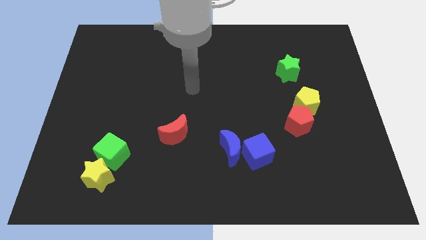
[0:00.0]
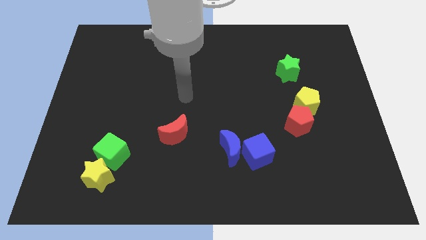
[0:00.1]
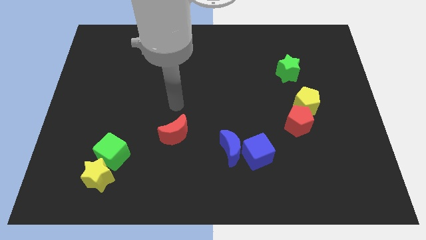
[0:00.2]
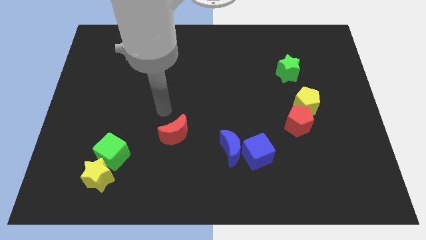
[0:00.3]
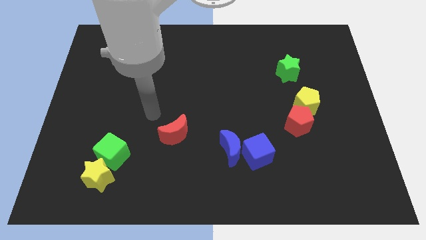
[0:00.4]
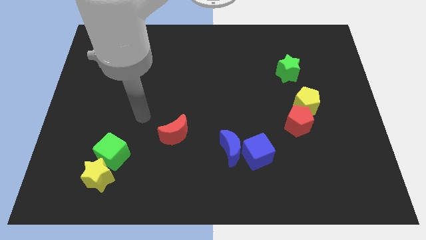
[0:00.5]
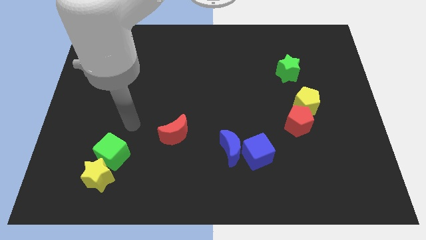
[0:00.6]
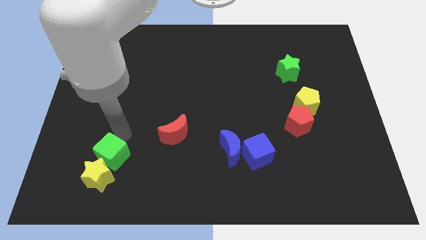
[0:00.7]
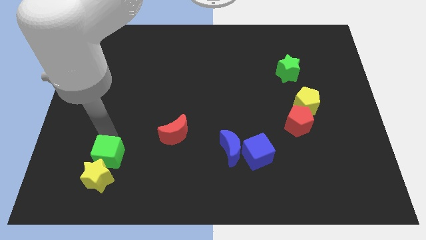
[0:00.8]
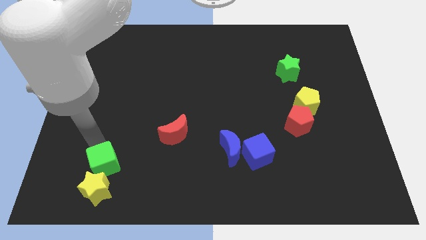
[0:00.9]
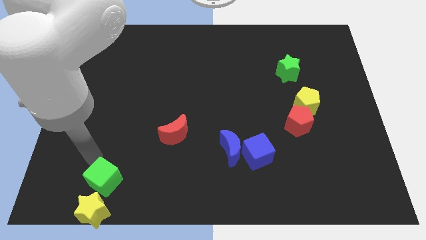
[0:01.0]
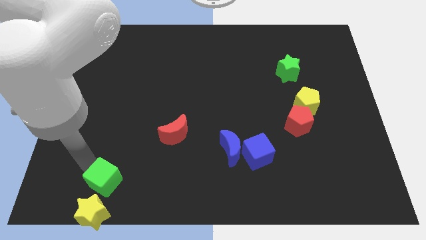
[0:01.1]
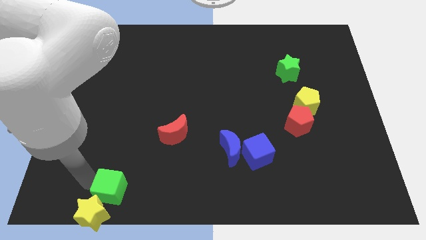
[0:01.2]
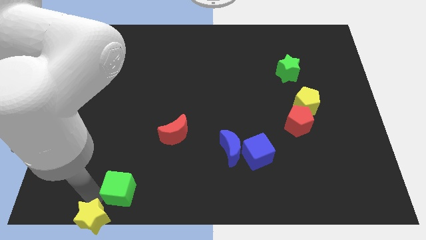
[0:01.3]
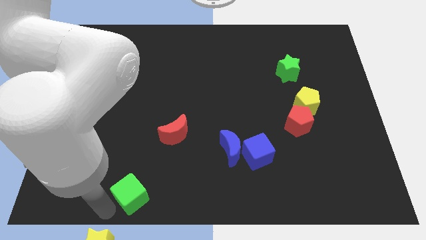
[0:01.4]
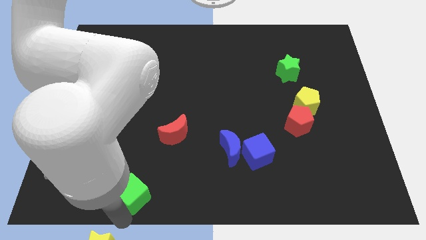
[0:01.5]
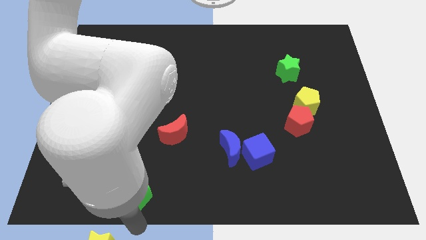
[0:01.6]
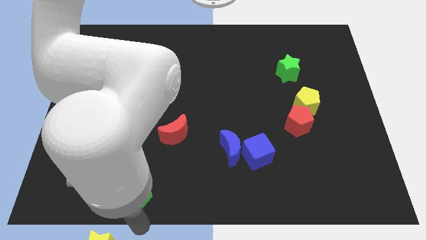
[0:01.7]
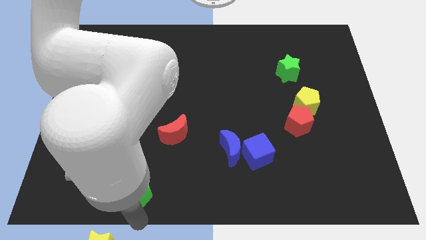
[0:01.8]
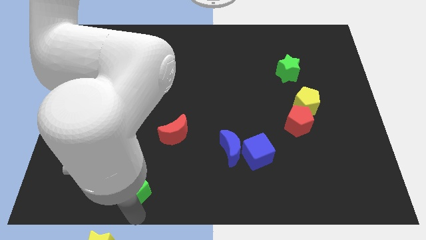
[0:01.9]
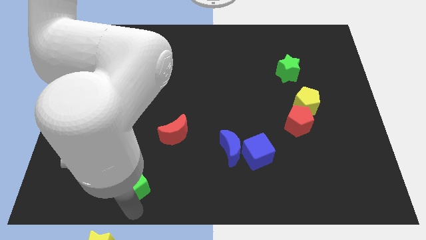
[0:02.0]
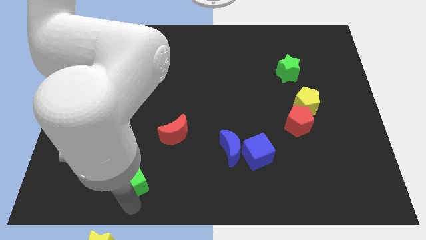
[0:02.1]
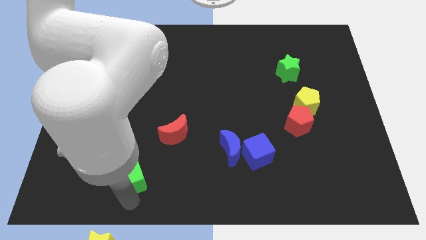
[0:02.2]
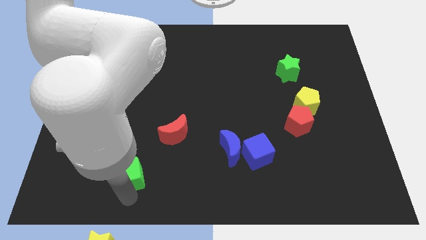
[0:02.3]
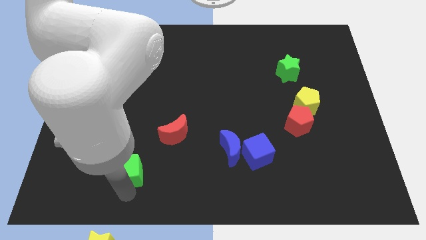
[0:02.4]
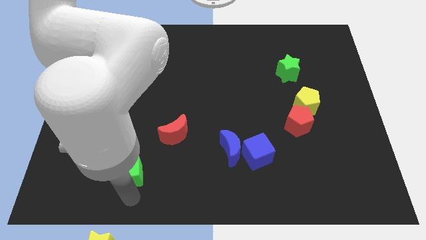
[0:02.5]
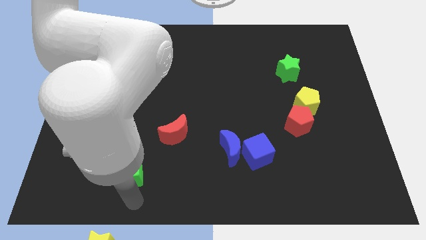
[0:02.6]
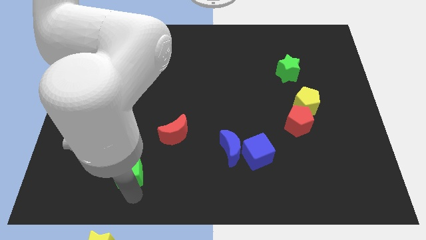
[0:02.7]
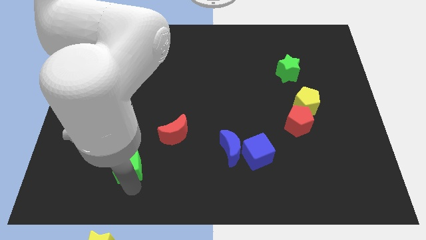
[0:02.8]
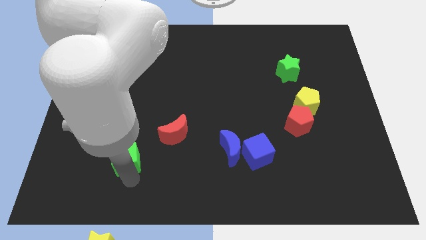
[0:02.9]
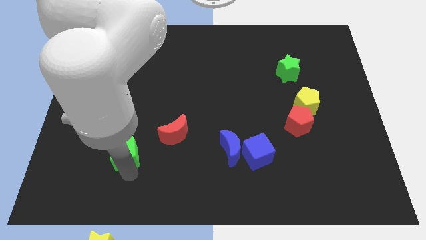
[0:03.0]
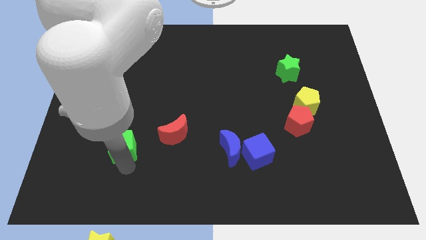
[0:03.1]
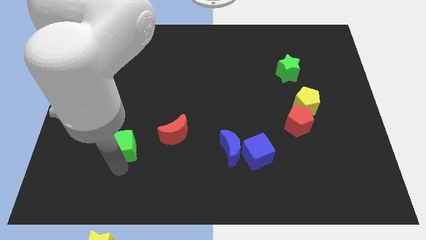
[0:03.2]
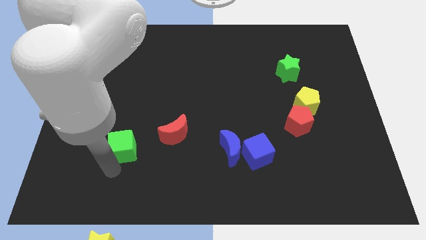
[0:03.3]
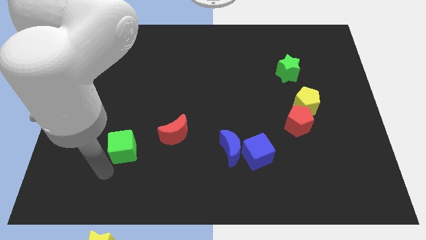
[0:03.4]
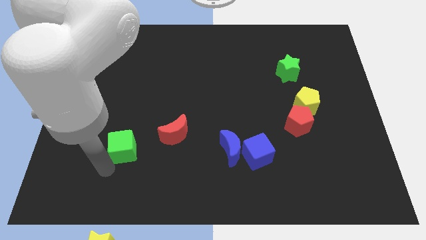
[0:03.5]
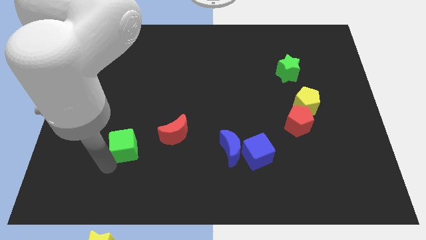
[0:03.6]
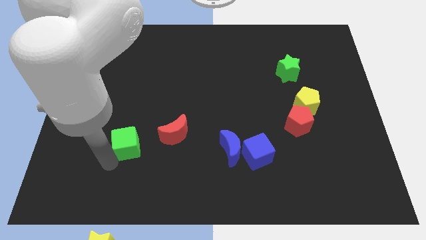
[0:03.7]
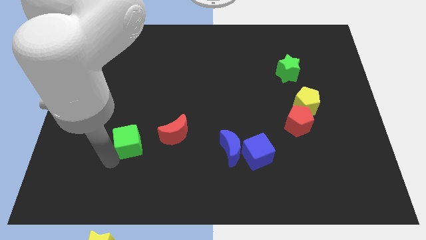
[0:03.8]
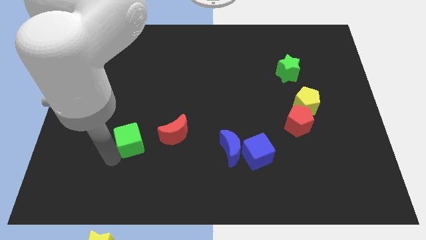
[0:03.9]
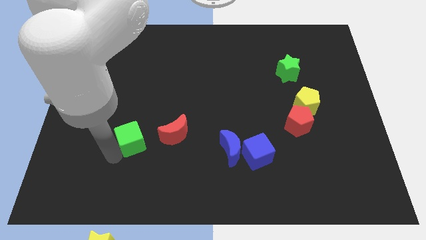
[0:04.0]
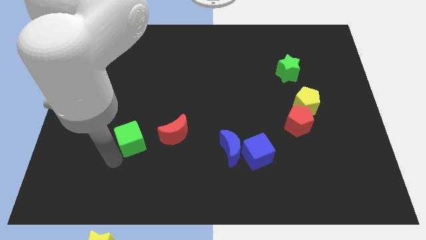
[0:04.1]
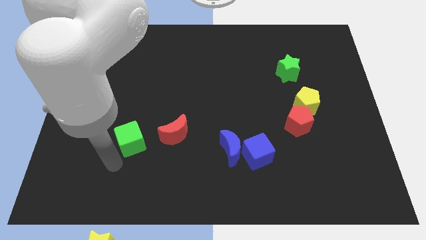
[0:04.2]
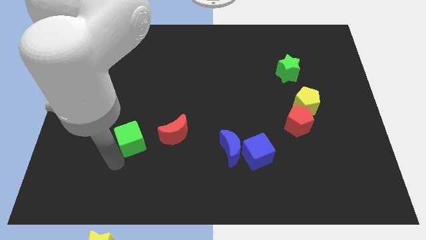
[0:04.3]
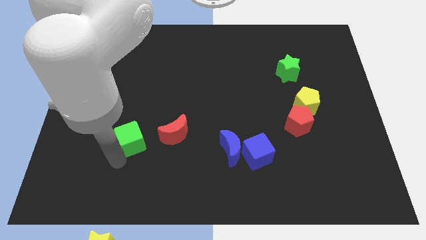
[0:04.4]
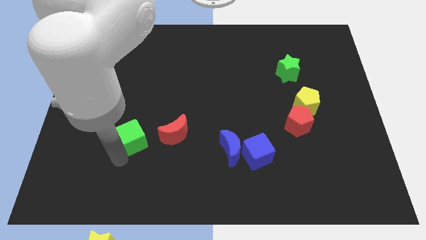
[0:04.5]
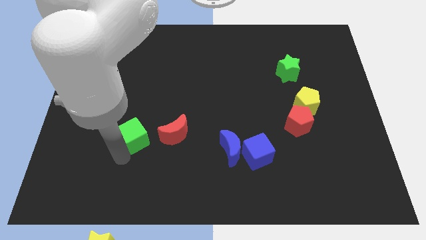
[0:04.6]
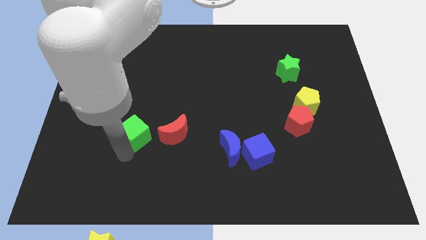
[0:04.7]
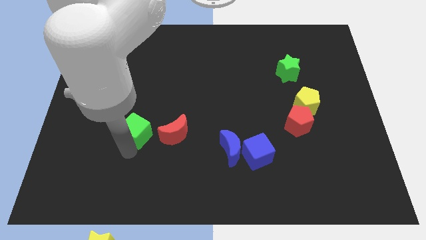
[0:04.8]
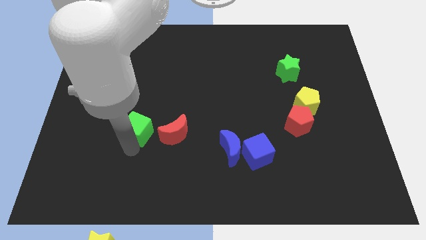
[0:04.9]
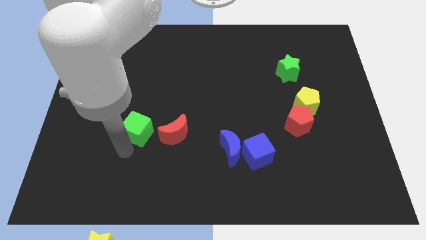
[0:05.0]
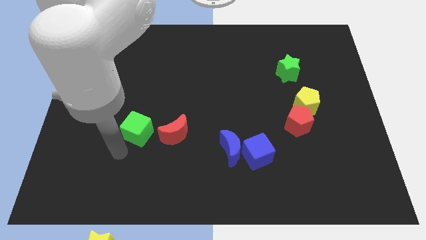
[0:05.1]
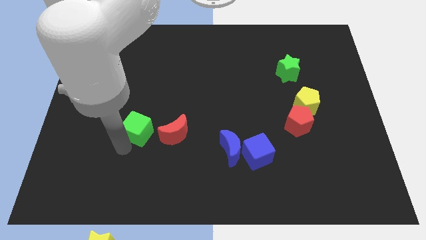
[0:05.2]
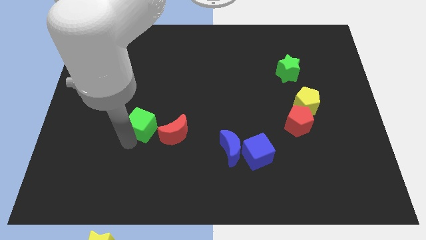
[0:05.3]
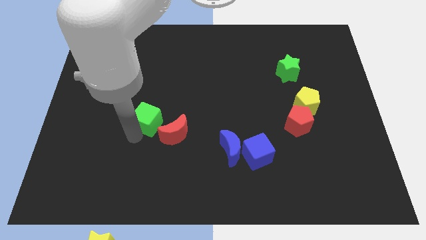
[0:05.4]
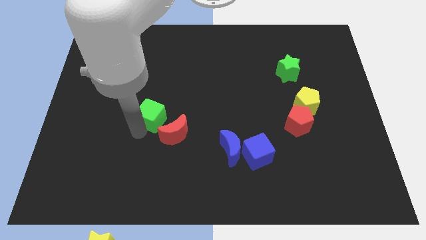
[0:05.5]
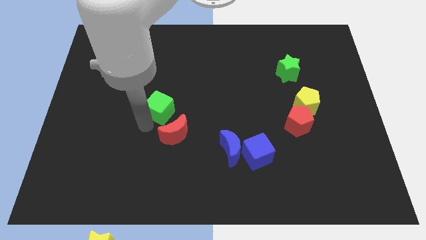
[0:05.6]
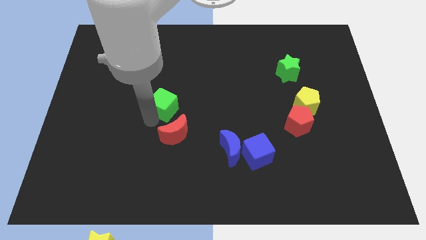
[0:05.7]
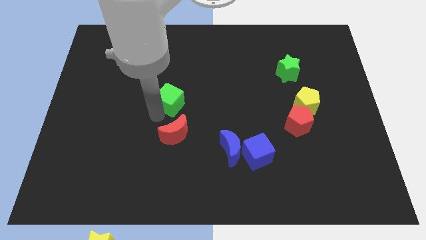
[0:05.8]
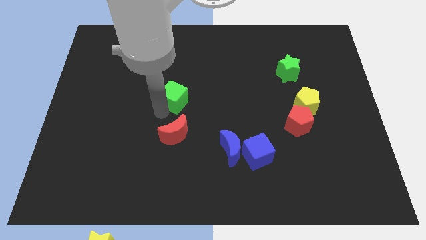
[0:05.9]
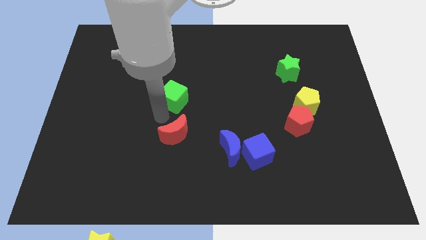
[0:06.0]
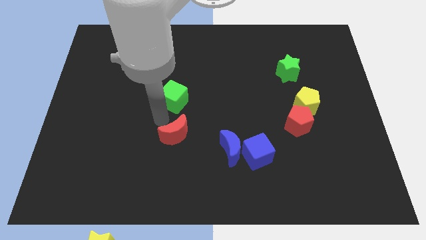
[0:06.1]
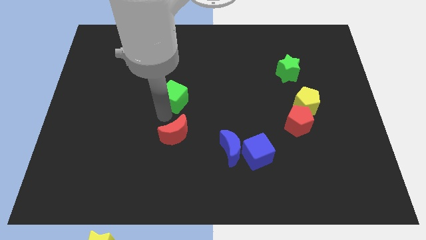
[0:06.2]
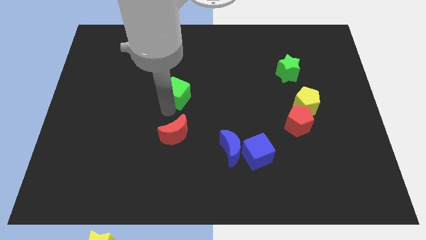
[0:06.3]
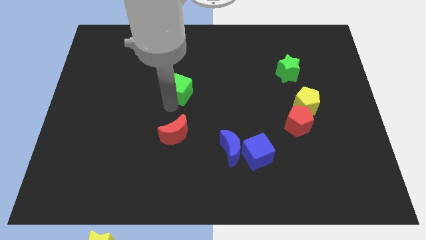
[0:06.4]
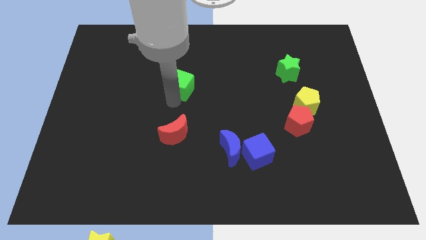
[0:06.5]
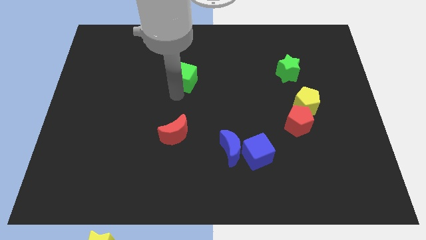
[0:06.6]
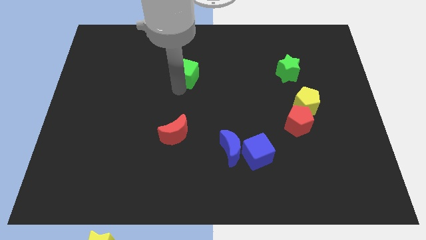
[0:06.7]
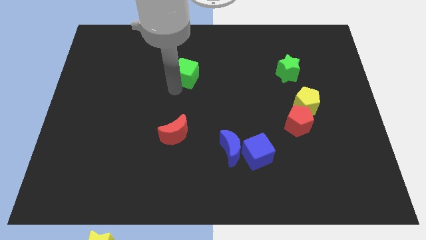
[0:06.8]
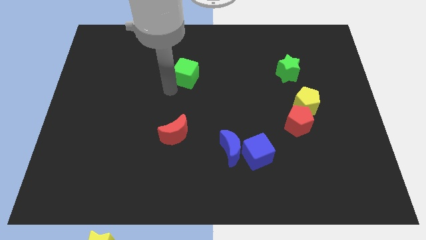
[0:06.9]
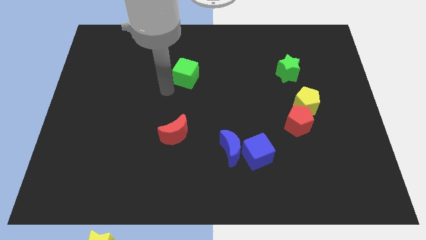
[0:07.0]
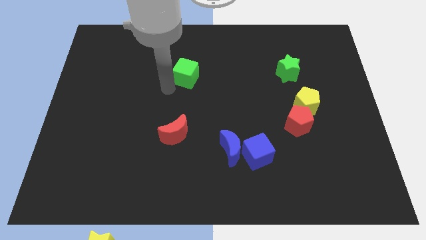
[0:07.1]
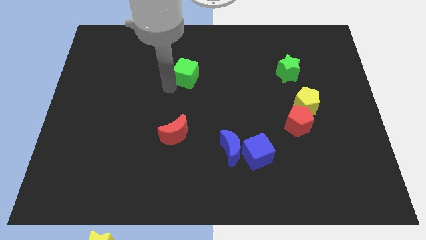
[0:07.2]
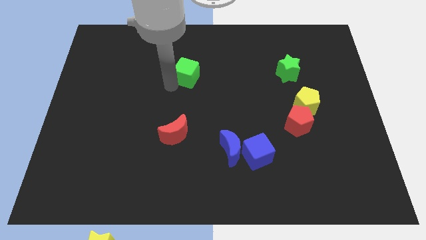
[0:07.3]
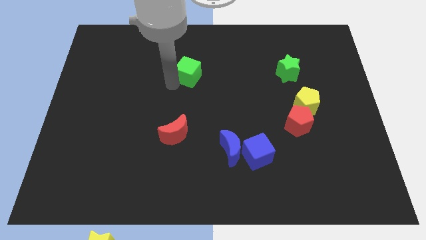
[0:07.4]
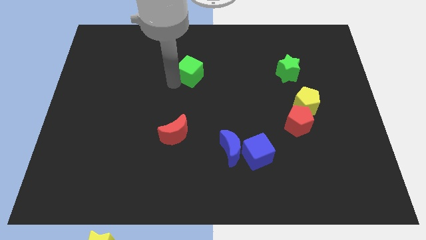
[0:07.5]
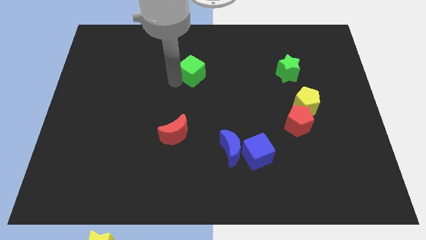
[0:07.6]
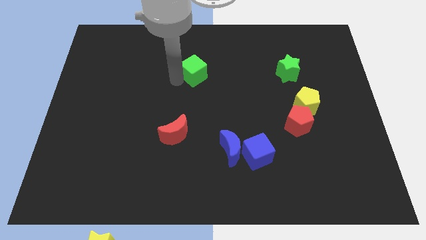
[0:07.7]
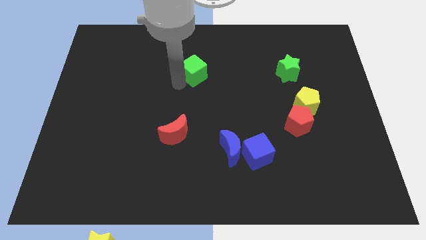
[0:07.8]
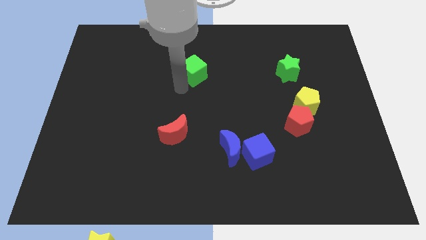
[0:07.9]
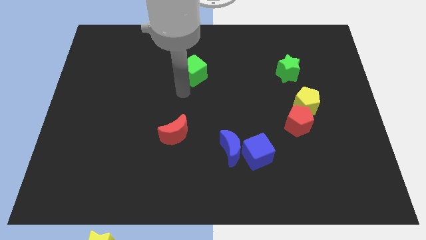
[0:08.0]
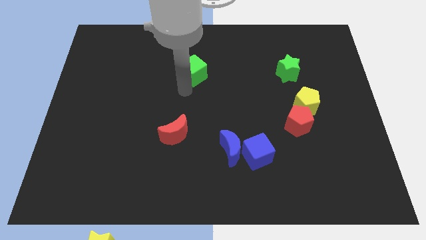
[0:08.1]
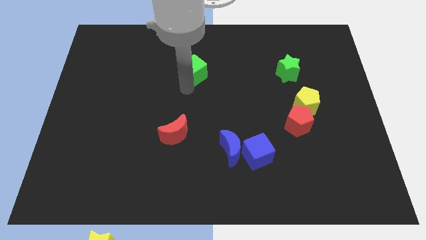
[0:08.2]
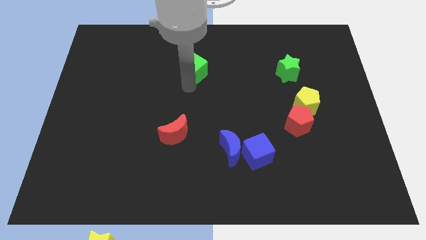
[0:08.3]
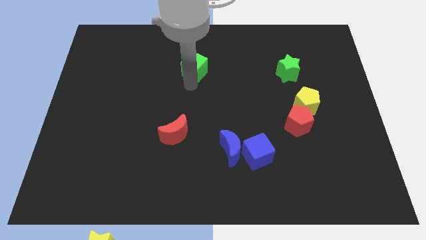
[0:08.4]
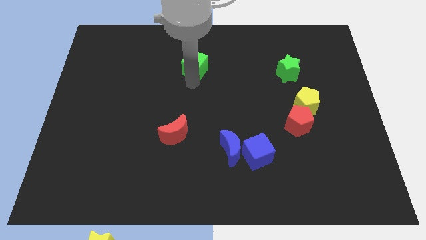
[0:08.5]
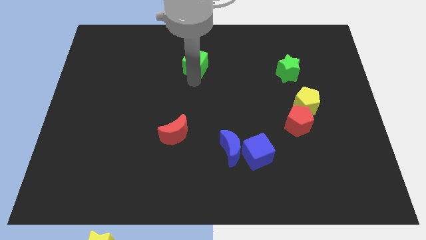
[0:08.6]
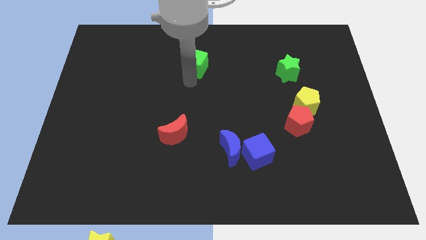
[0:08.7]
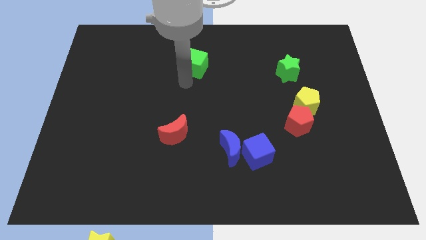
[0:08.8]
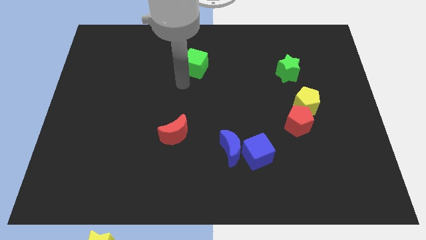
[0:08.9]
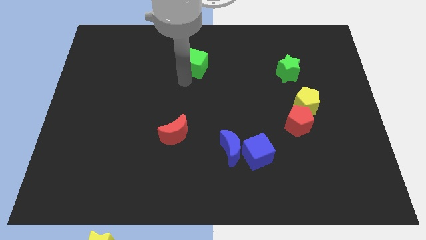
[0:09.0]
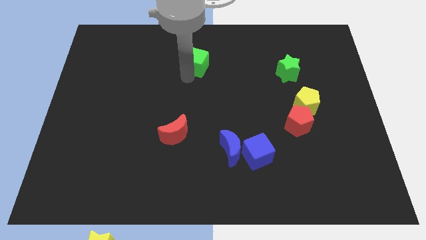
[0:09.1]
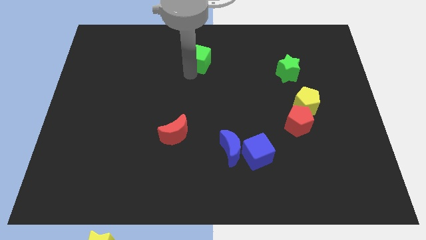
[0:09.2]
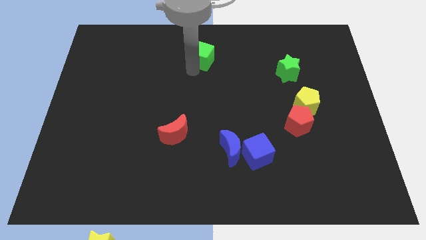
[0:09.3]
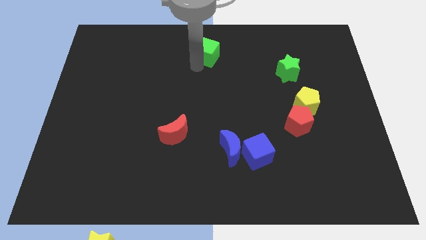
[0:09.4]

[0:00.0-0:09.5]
push the green cube to the towards your base
